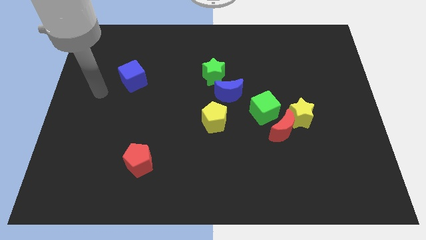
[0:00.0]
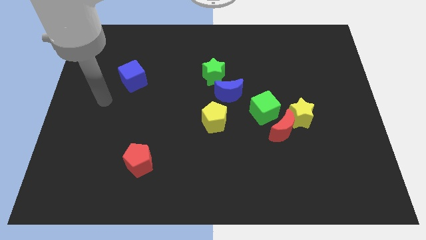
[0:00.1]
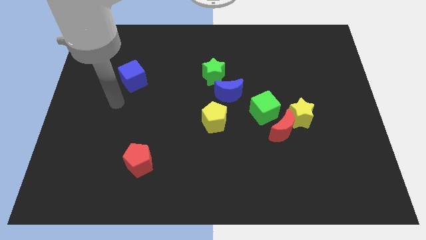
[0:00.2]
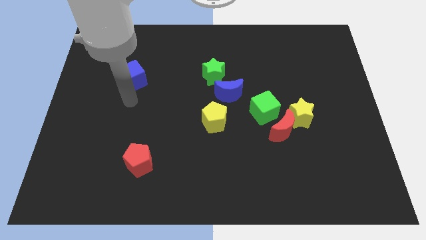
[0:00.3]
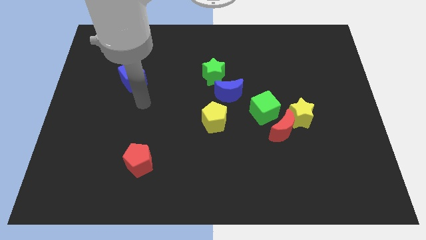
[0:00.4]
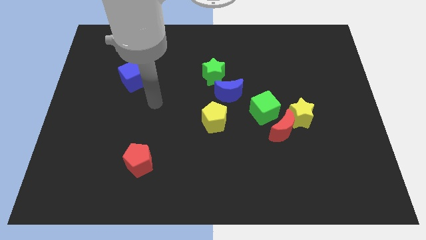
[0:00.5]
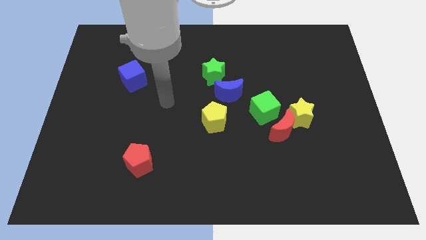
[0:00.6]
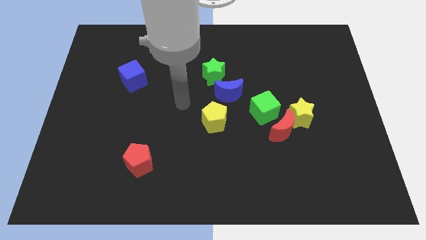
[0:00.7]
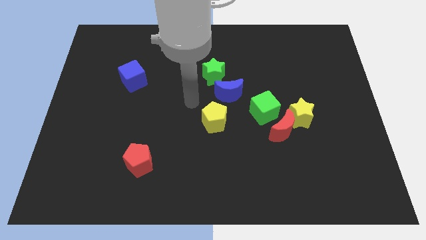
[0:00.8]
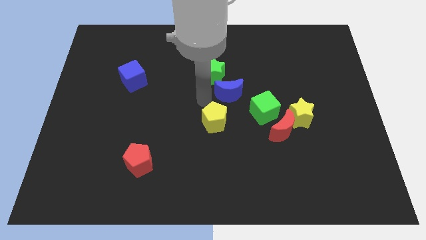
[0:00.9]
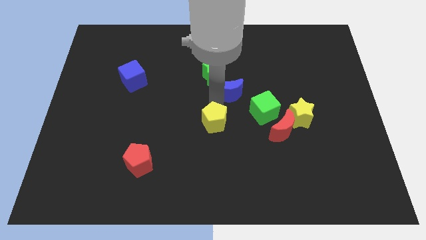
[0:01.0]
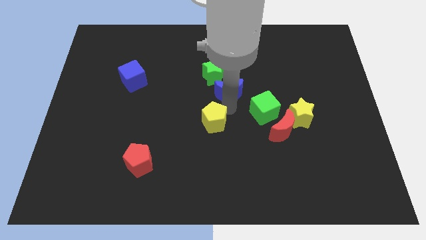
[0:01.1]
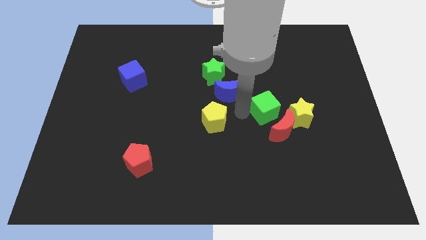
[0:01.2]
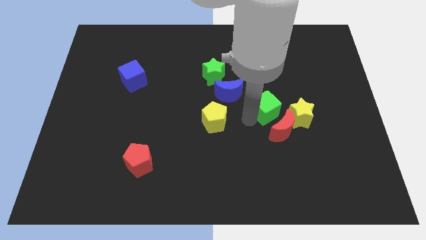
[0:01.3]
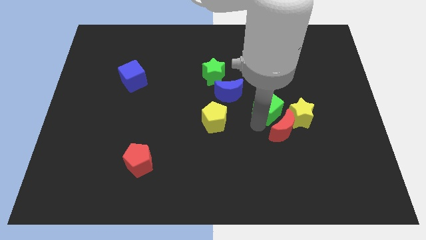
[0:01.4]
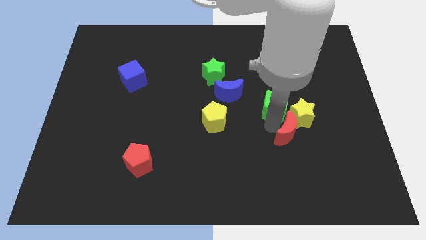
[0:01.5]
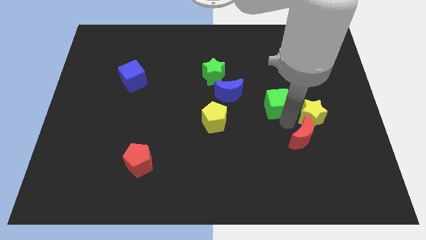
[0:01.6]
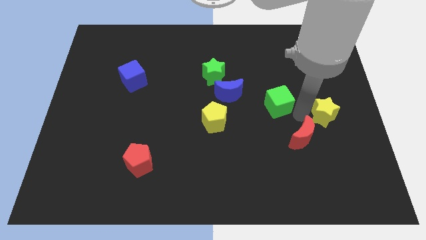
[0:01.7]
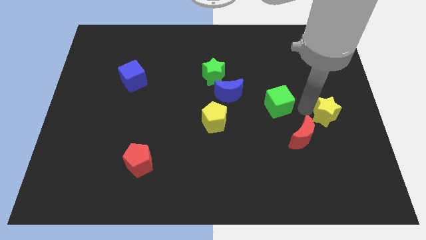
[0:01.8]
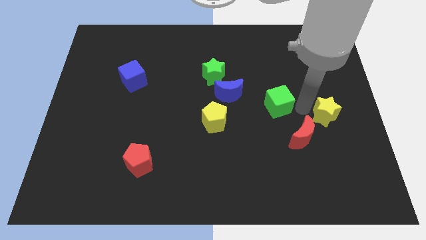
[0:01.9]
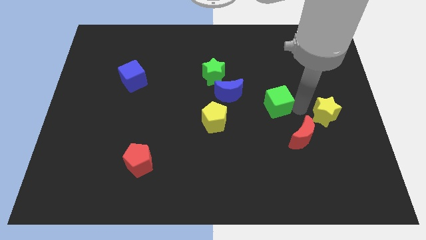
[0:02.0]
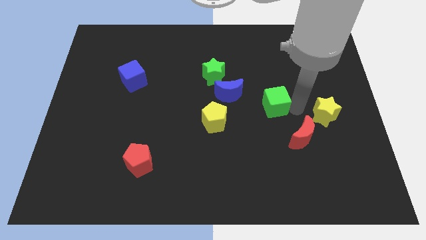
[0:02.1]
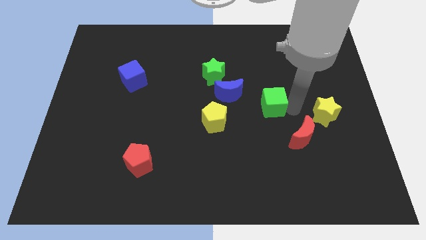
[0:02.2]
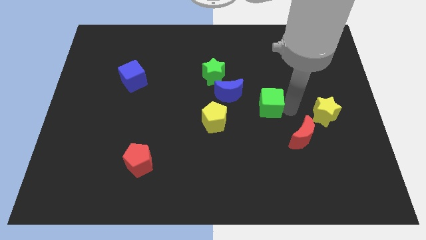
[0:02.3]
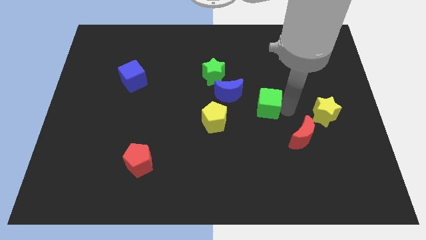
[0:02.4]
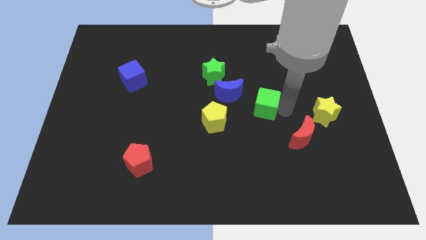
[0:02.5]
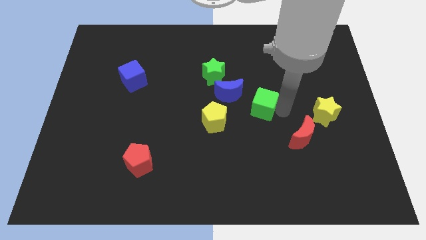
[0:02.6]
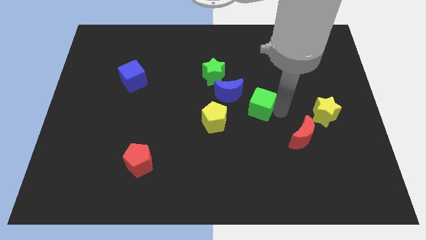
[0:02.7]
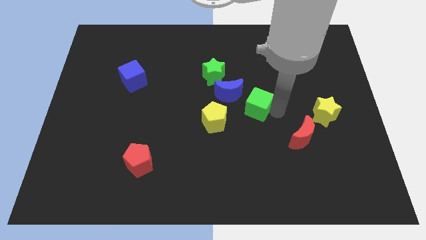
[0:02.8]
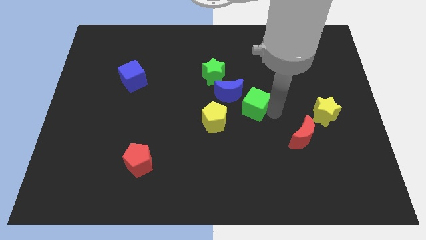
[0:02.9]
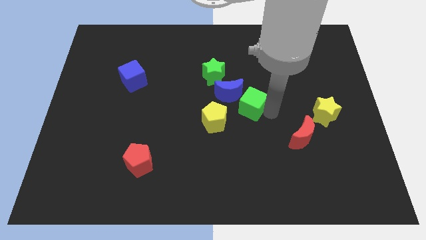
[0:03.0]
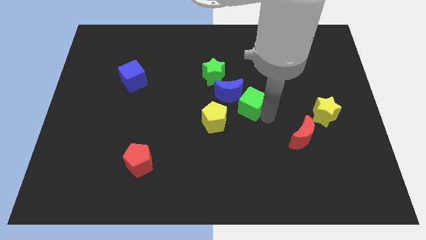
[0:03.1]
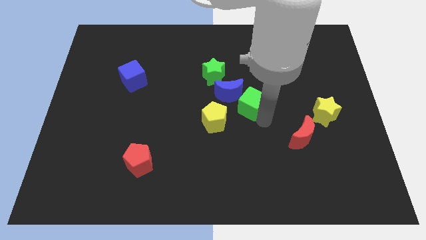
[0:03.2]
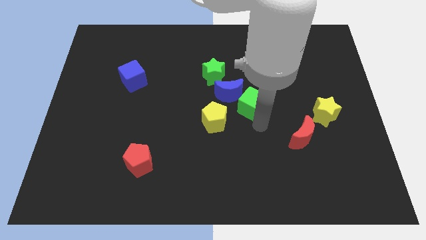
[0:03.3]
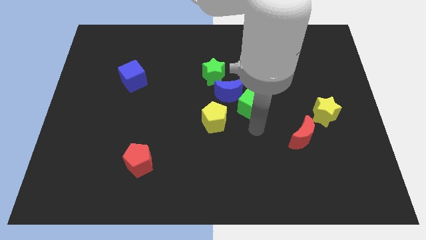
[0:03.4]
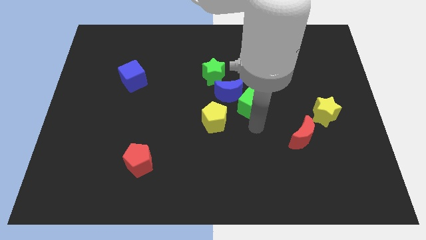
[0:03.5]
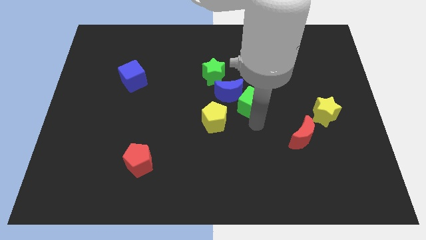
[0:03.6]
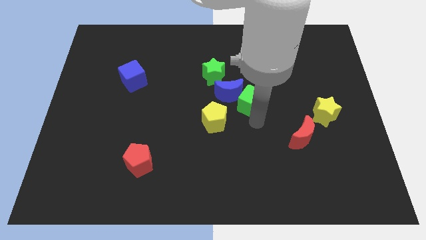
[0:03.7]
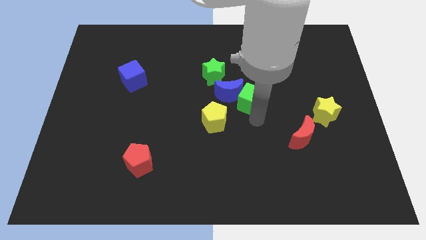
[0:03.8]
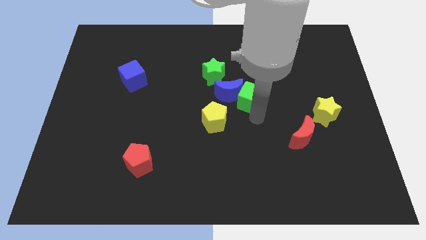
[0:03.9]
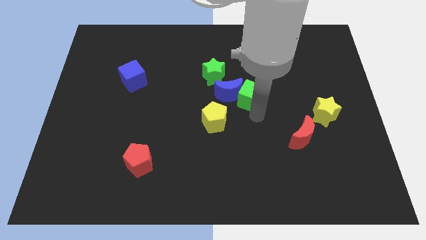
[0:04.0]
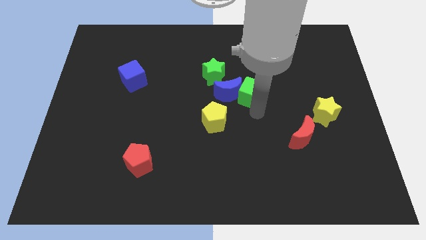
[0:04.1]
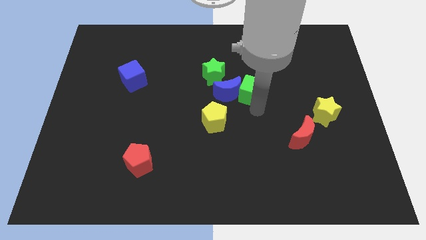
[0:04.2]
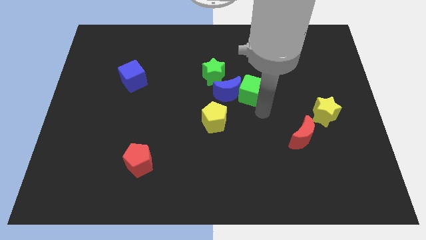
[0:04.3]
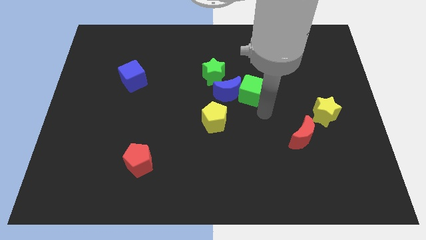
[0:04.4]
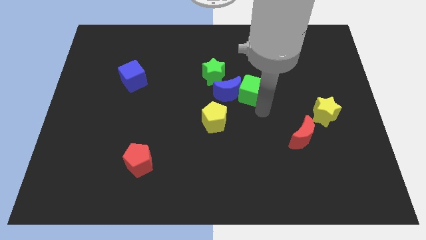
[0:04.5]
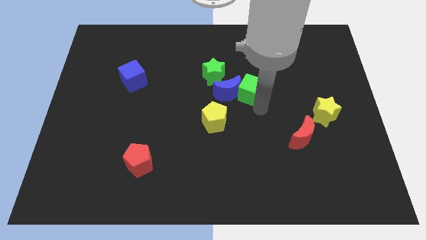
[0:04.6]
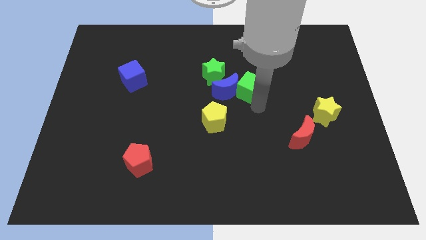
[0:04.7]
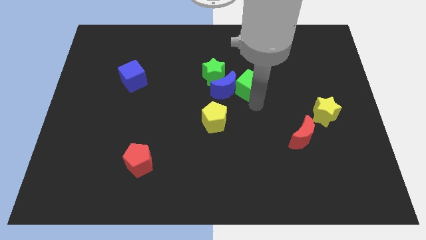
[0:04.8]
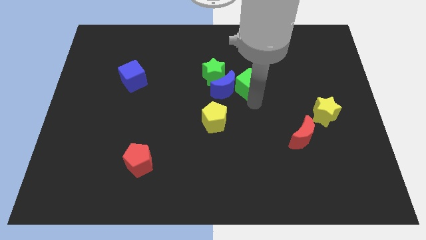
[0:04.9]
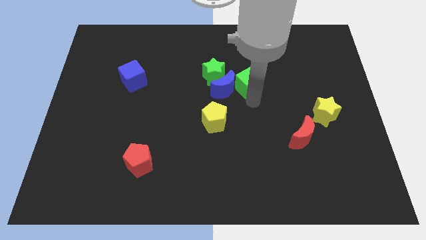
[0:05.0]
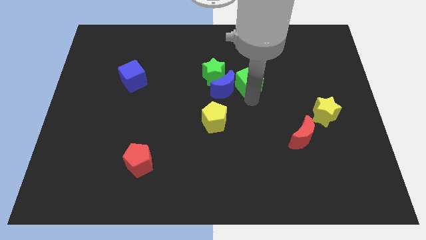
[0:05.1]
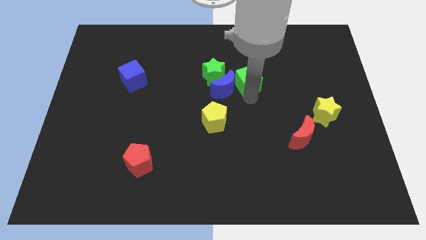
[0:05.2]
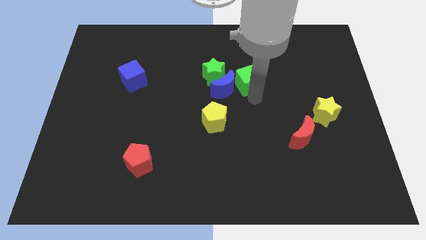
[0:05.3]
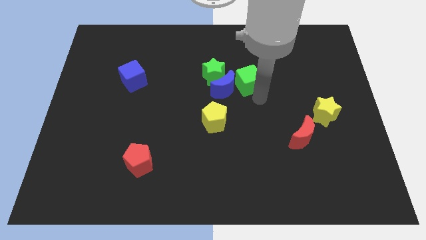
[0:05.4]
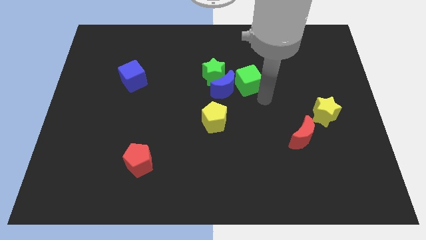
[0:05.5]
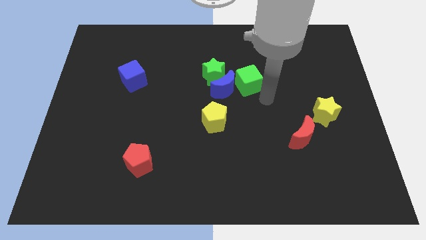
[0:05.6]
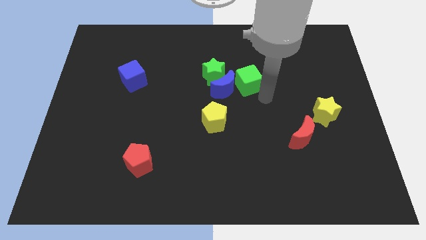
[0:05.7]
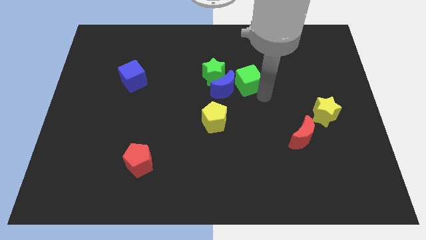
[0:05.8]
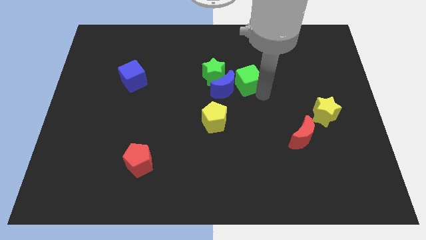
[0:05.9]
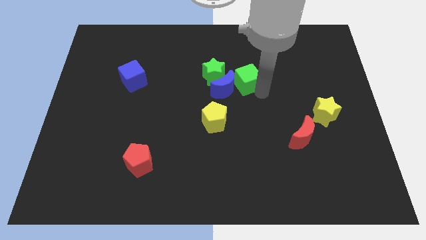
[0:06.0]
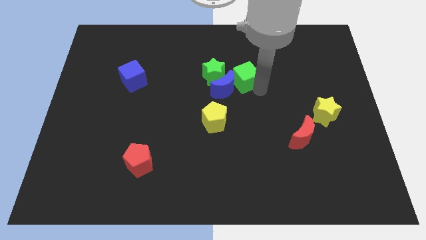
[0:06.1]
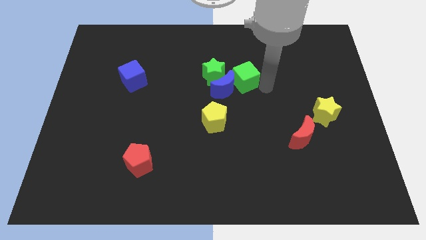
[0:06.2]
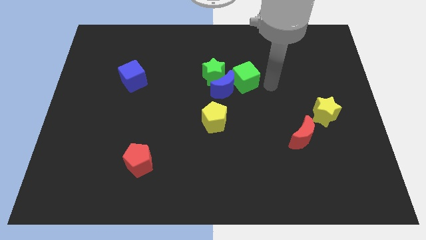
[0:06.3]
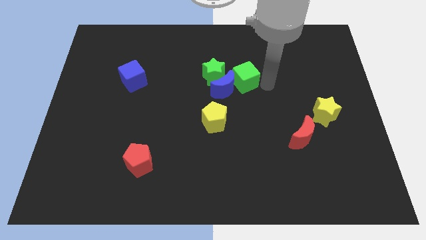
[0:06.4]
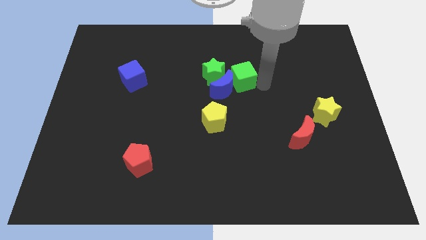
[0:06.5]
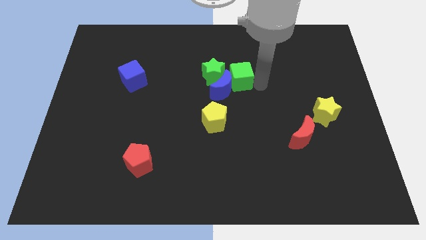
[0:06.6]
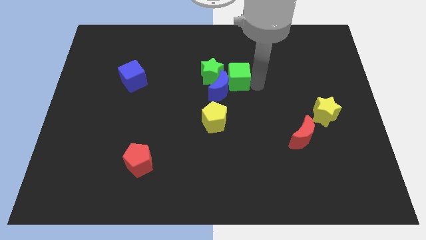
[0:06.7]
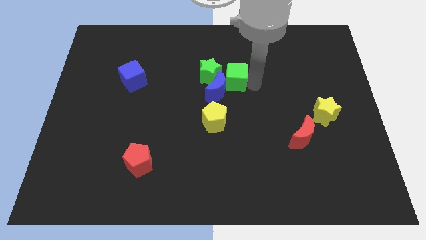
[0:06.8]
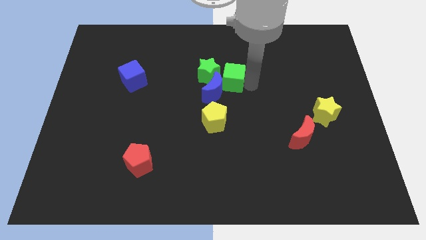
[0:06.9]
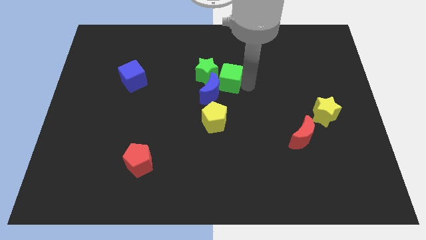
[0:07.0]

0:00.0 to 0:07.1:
move the green cube close to the green star
